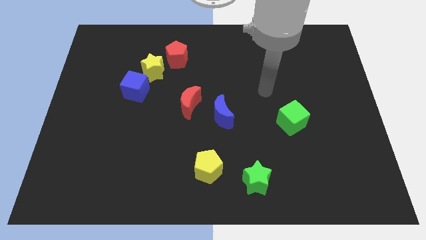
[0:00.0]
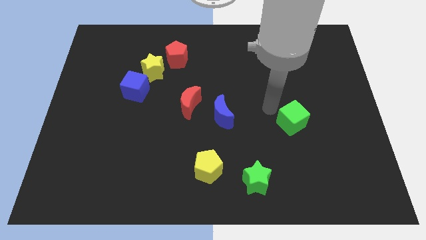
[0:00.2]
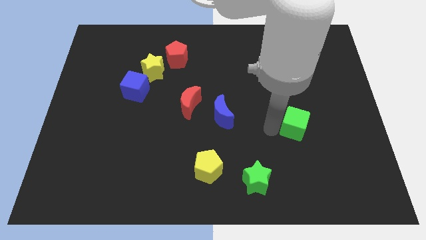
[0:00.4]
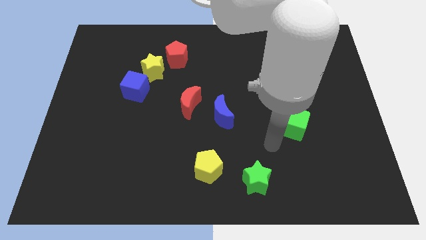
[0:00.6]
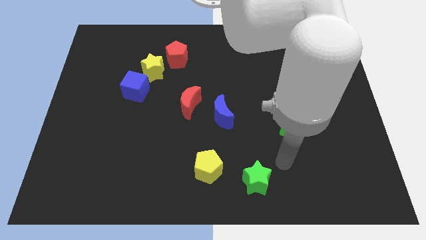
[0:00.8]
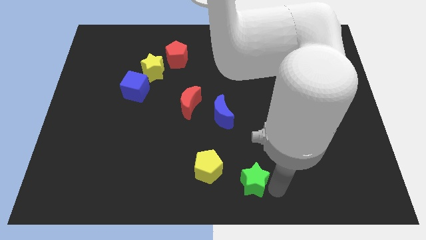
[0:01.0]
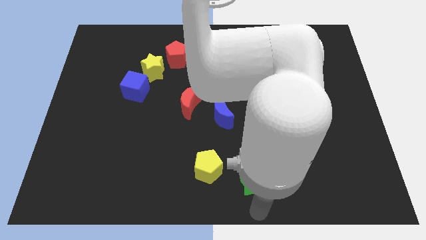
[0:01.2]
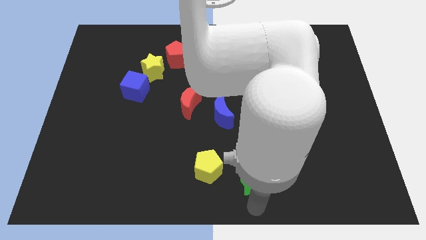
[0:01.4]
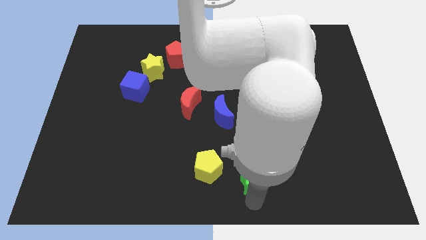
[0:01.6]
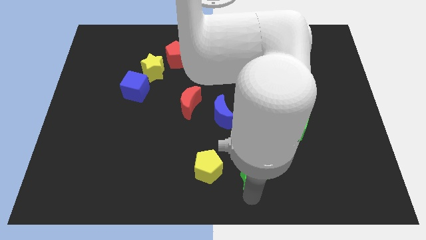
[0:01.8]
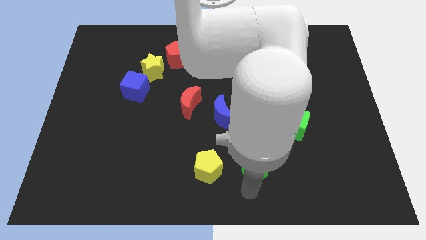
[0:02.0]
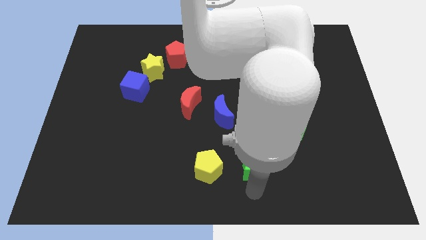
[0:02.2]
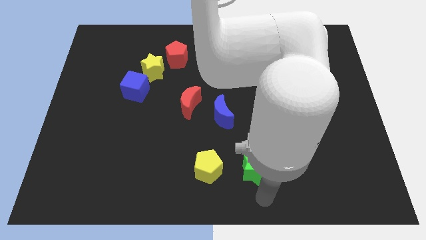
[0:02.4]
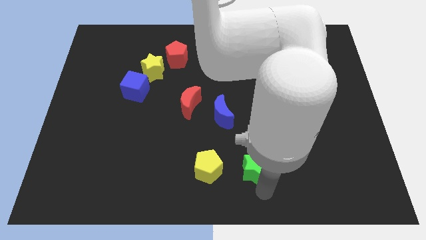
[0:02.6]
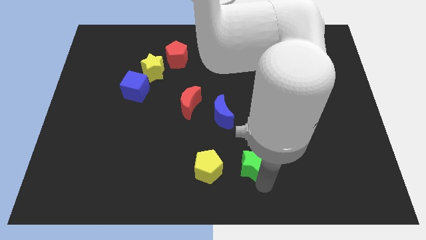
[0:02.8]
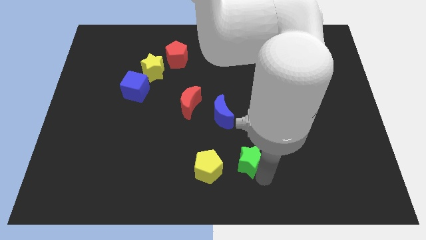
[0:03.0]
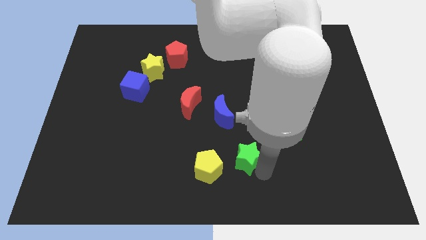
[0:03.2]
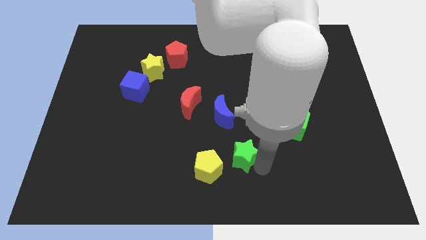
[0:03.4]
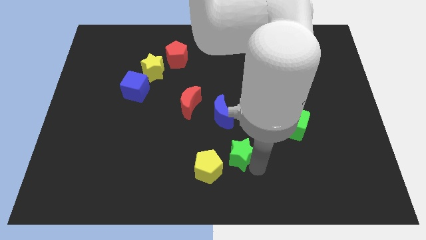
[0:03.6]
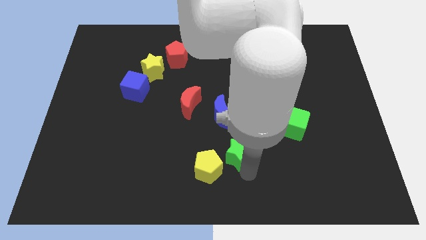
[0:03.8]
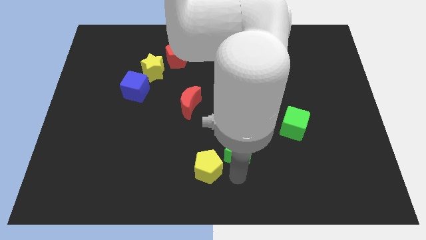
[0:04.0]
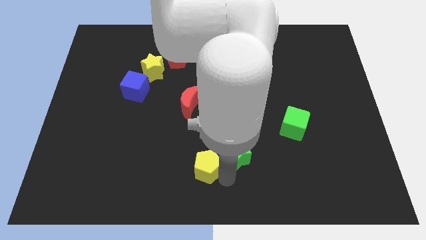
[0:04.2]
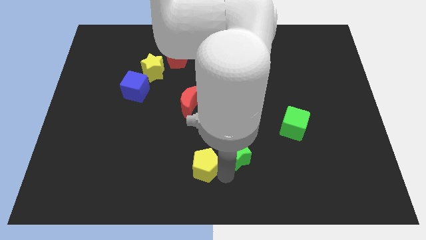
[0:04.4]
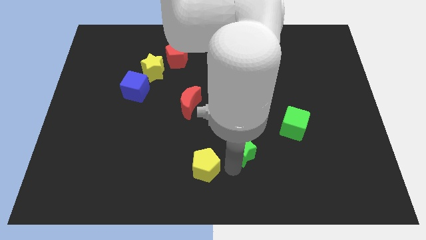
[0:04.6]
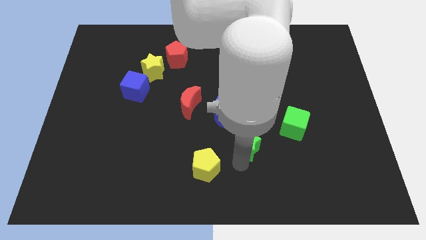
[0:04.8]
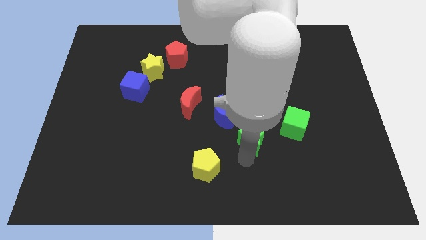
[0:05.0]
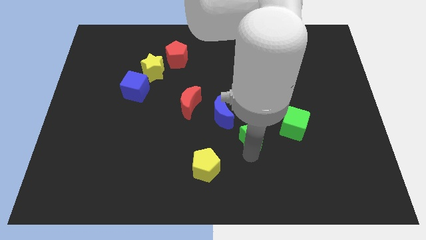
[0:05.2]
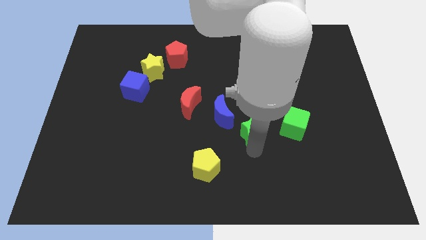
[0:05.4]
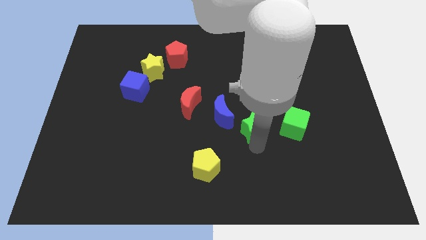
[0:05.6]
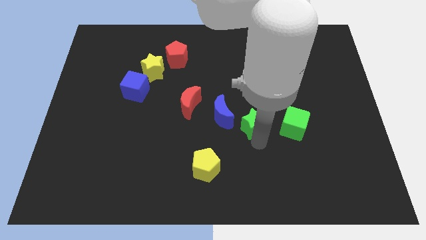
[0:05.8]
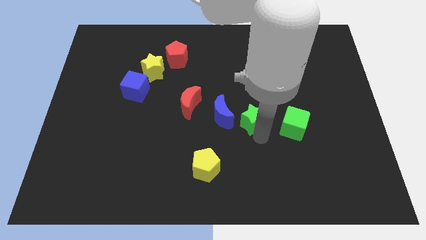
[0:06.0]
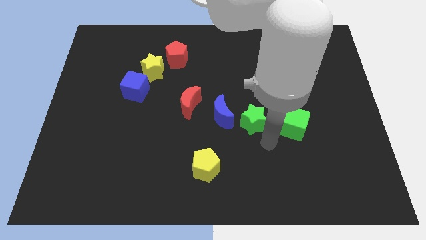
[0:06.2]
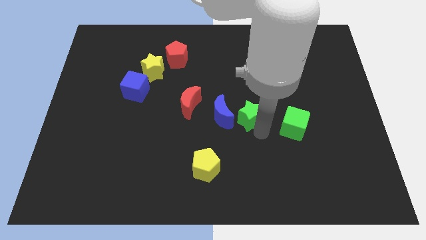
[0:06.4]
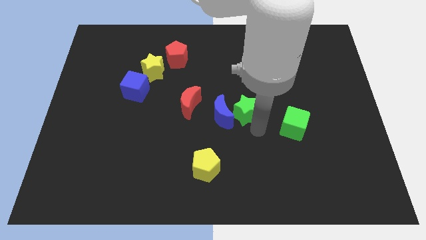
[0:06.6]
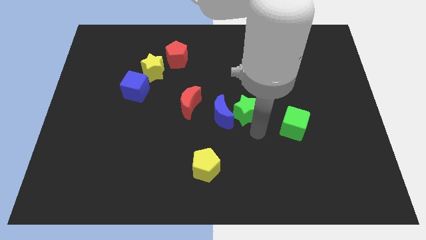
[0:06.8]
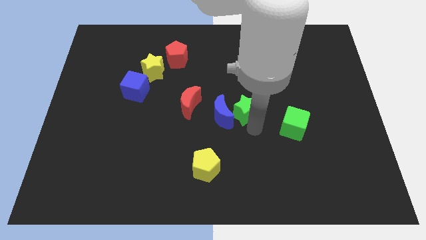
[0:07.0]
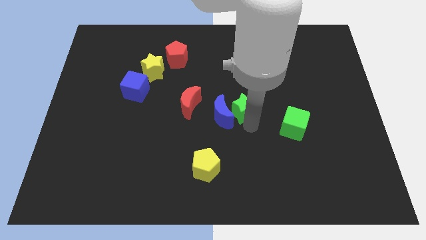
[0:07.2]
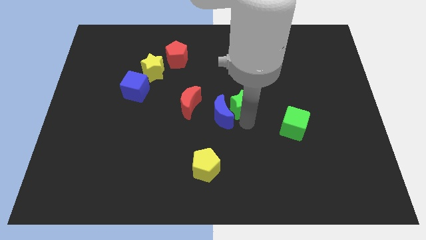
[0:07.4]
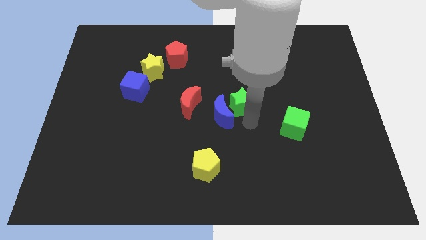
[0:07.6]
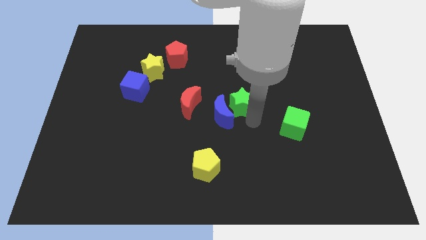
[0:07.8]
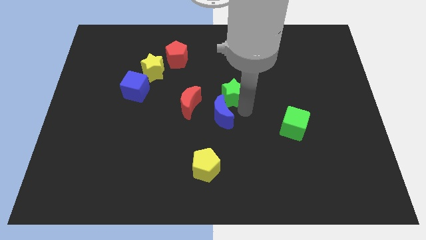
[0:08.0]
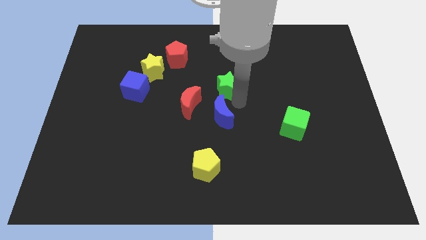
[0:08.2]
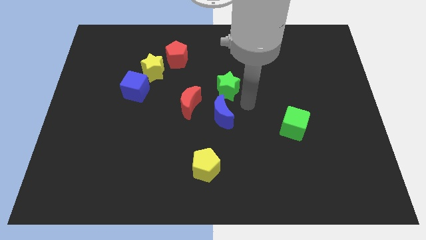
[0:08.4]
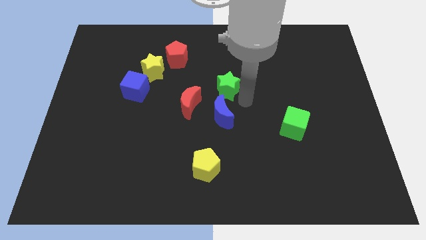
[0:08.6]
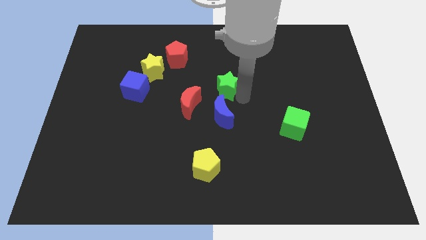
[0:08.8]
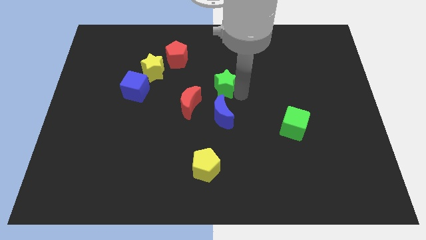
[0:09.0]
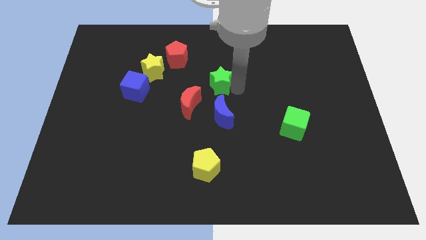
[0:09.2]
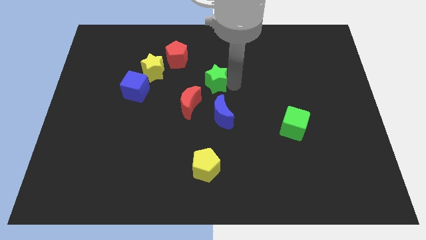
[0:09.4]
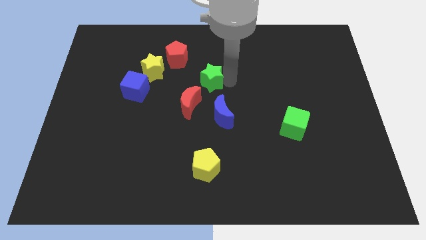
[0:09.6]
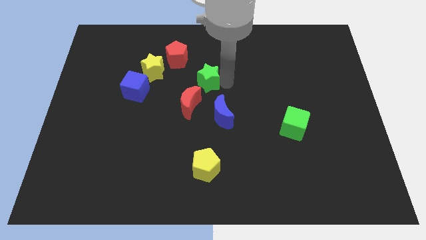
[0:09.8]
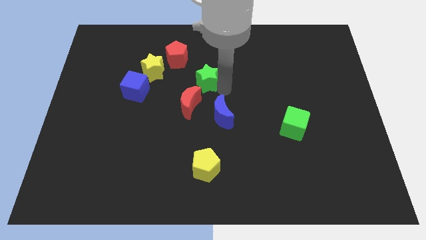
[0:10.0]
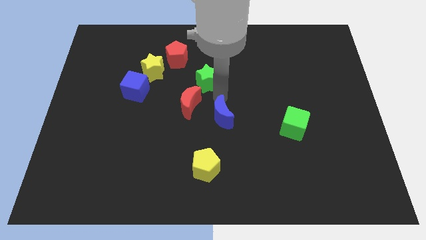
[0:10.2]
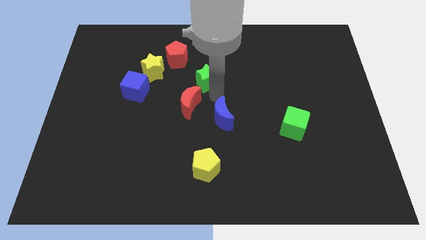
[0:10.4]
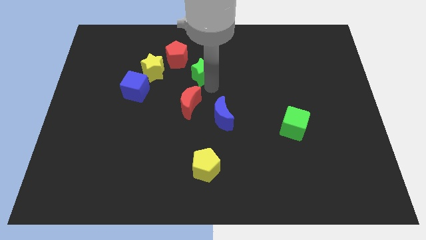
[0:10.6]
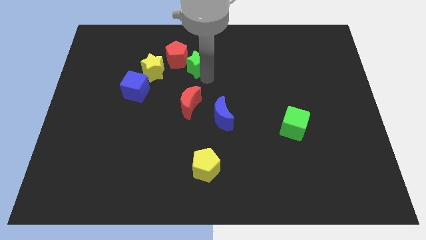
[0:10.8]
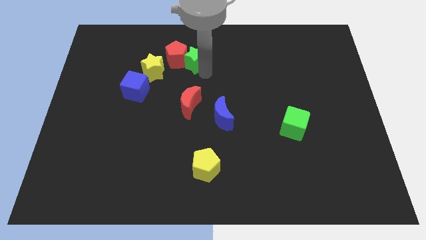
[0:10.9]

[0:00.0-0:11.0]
put the green star towards the red pentagon

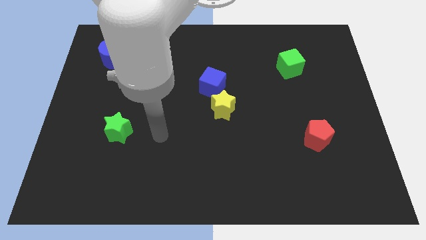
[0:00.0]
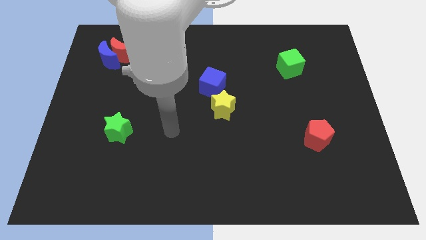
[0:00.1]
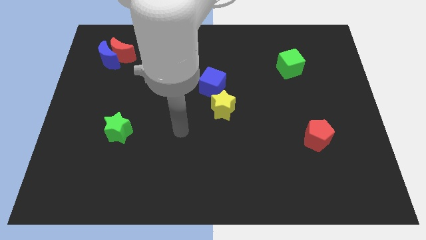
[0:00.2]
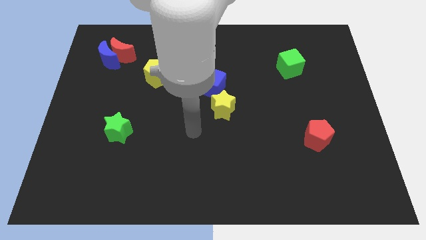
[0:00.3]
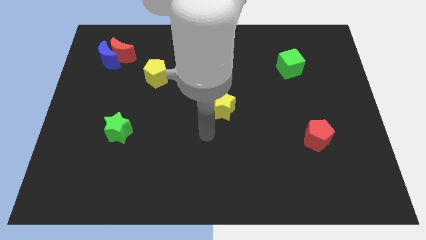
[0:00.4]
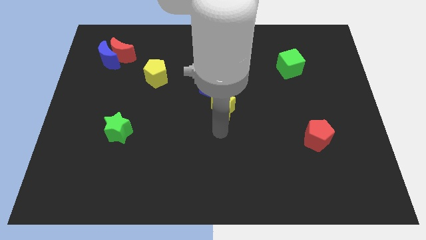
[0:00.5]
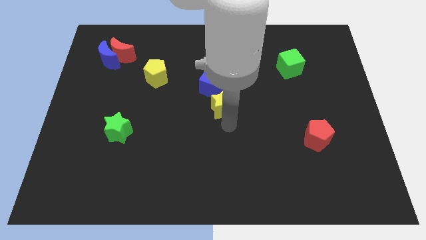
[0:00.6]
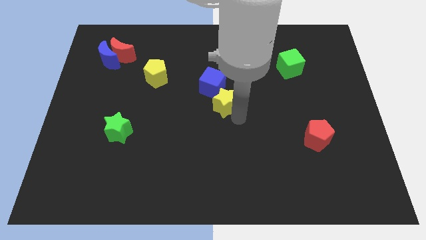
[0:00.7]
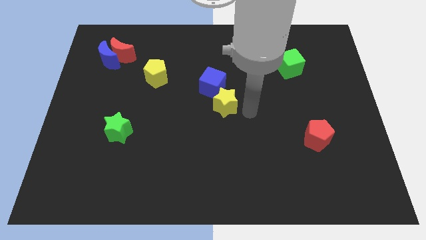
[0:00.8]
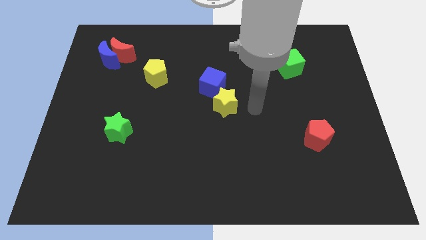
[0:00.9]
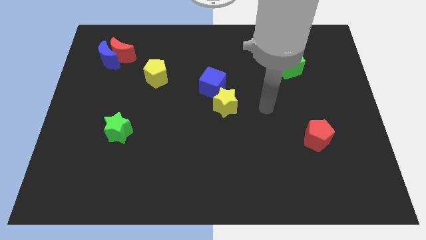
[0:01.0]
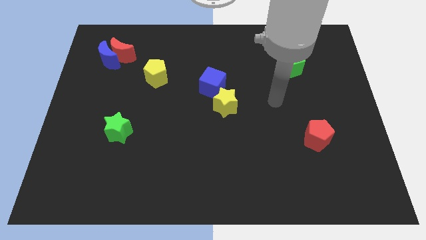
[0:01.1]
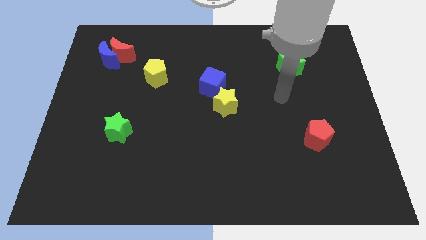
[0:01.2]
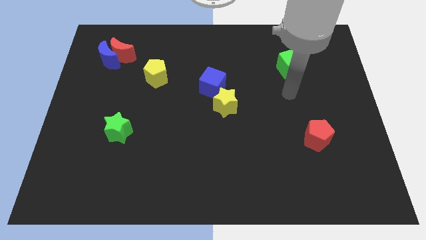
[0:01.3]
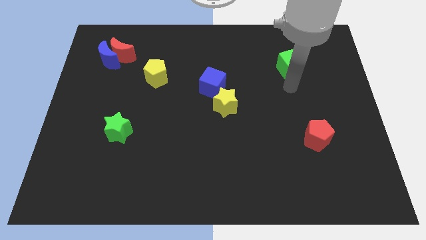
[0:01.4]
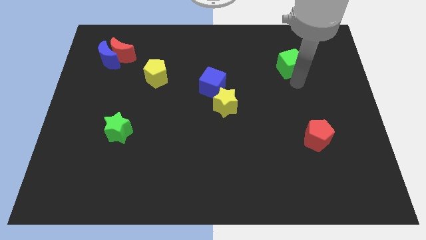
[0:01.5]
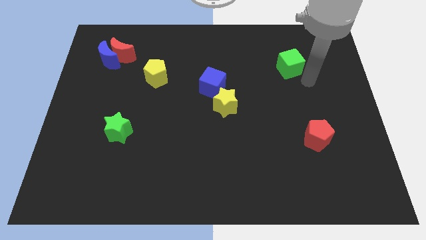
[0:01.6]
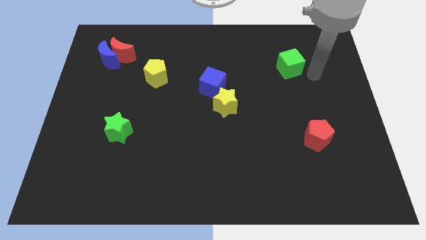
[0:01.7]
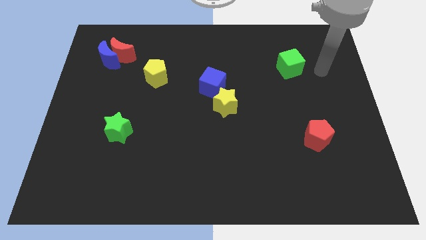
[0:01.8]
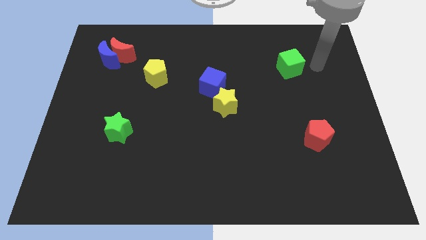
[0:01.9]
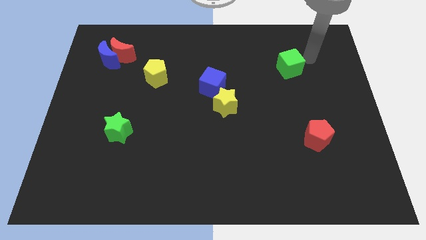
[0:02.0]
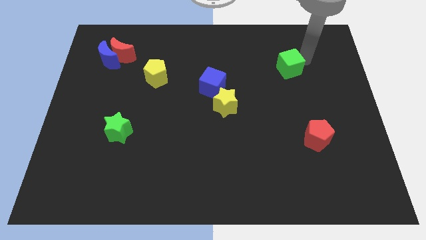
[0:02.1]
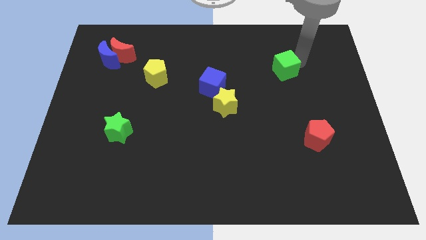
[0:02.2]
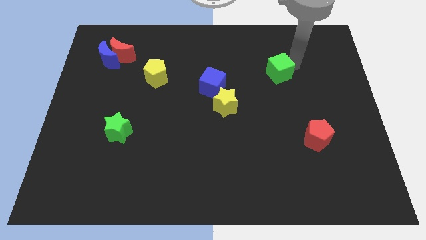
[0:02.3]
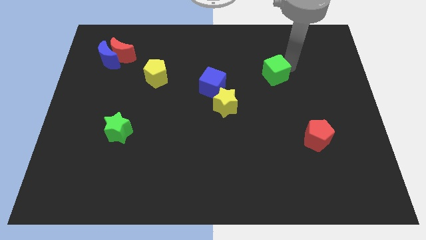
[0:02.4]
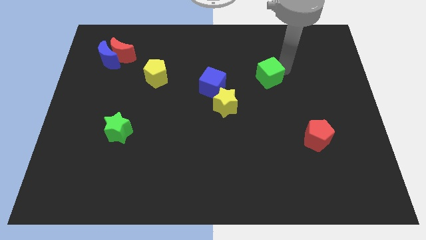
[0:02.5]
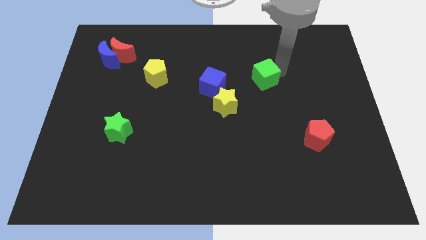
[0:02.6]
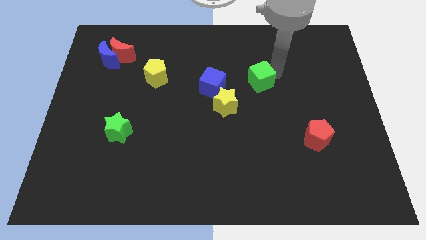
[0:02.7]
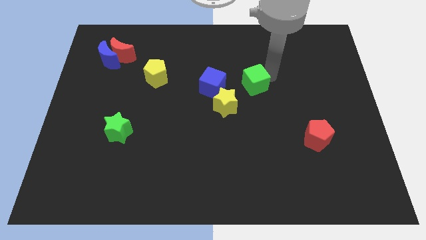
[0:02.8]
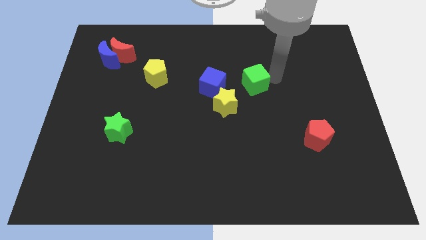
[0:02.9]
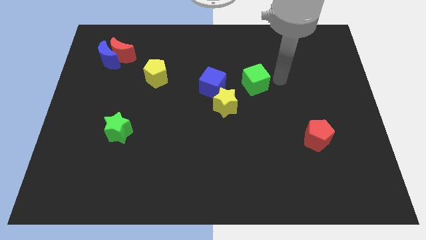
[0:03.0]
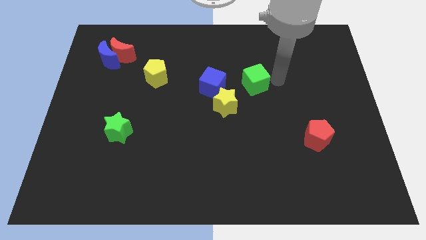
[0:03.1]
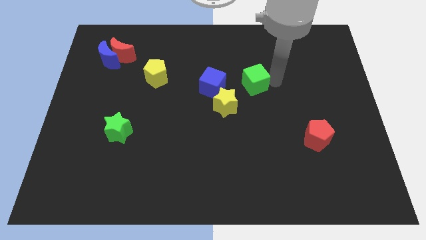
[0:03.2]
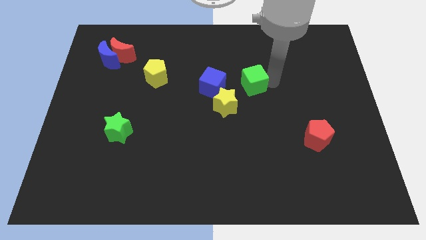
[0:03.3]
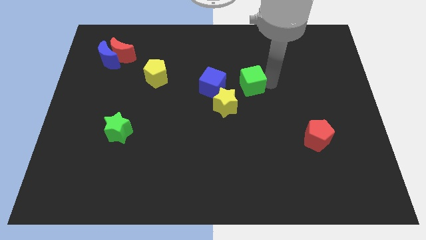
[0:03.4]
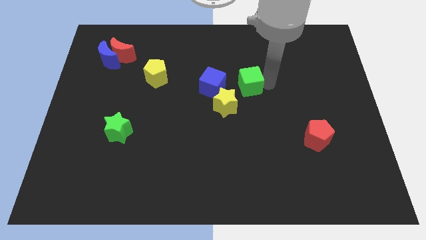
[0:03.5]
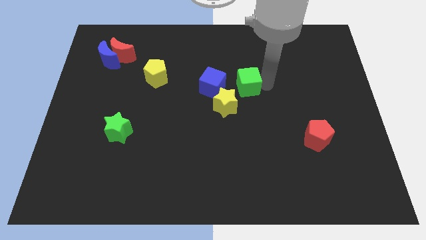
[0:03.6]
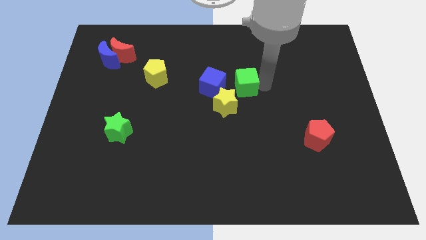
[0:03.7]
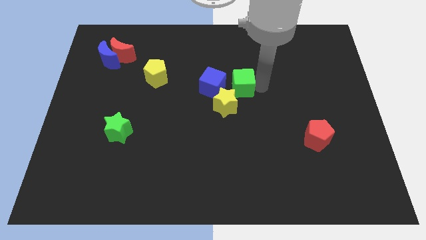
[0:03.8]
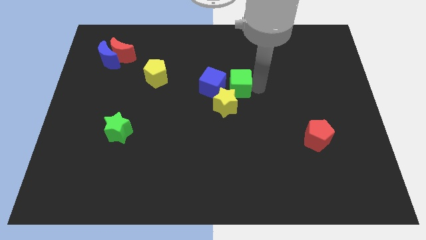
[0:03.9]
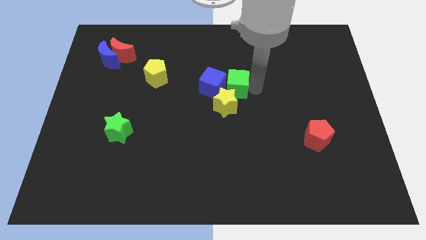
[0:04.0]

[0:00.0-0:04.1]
move the green cube close to the blue cube
